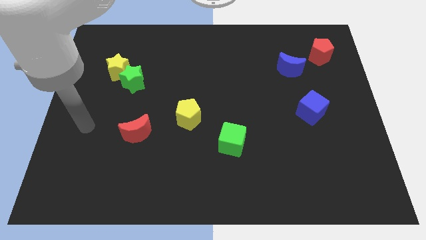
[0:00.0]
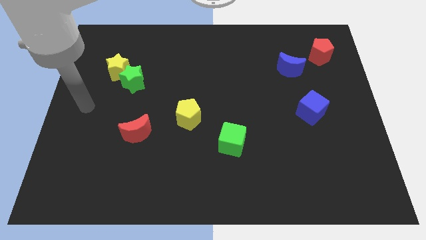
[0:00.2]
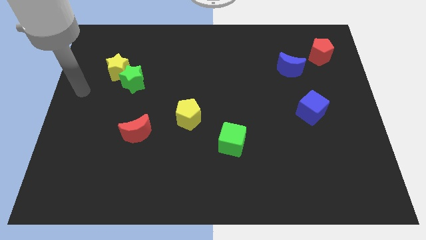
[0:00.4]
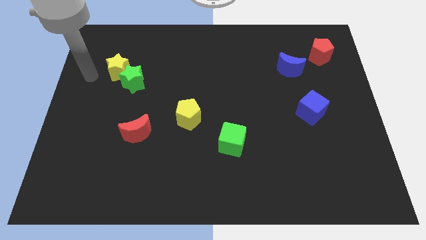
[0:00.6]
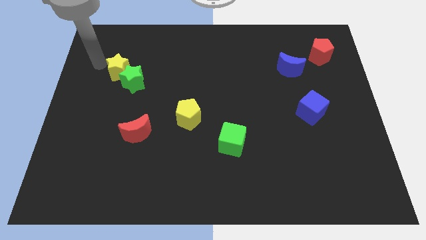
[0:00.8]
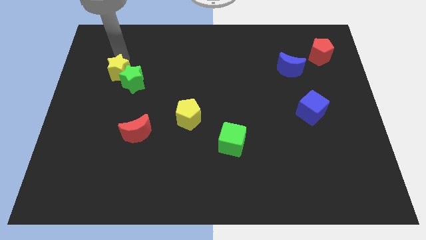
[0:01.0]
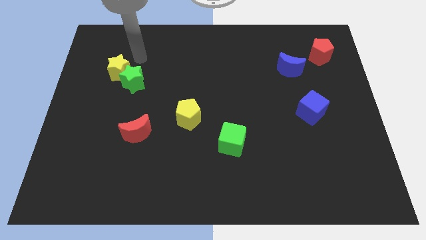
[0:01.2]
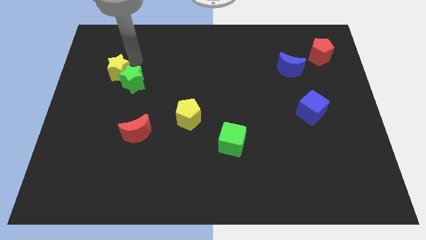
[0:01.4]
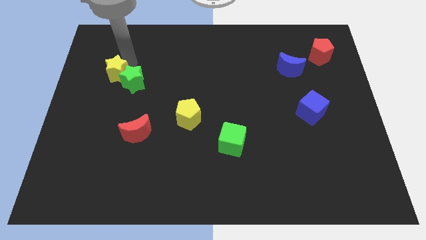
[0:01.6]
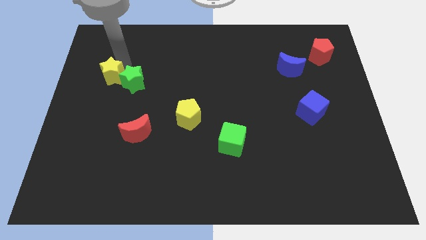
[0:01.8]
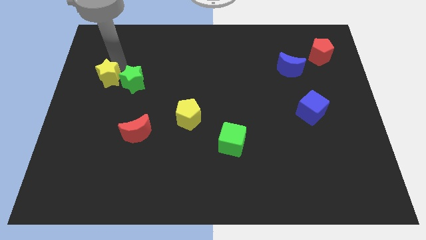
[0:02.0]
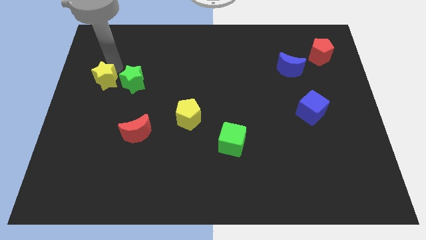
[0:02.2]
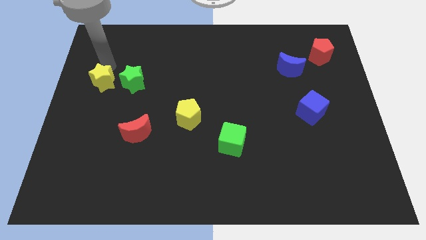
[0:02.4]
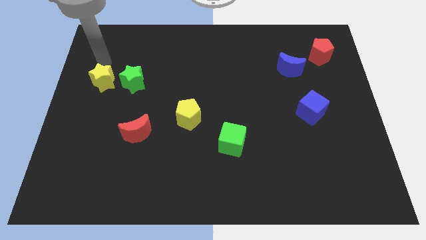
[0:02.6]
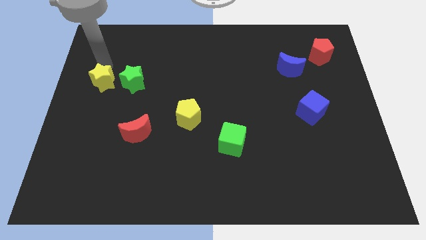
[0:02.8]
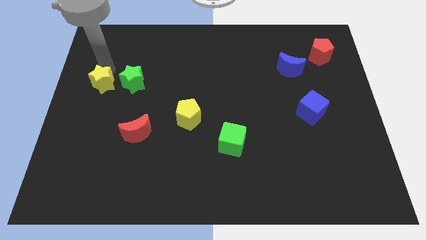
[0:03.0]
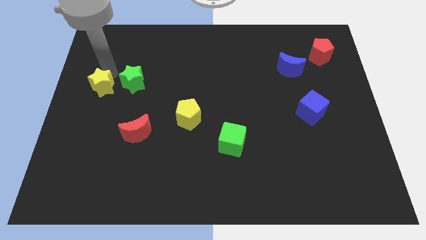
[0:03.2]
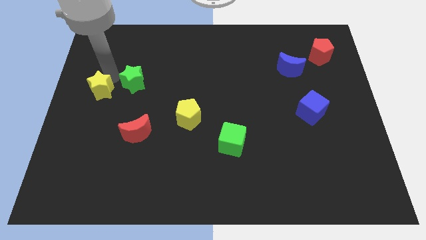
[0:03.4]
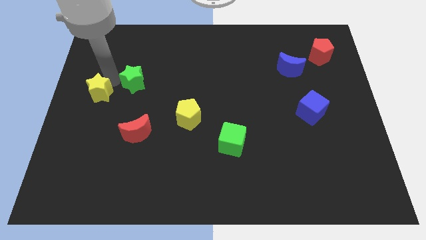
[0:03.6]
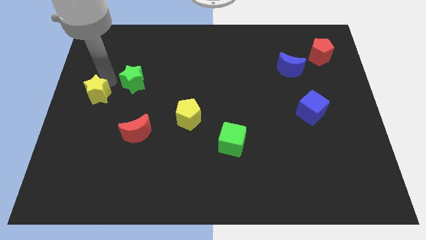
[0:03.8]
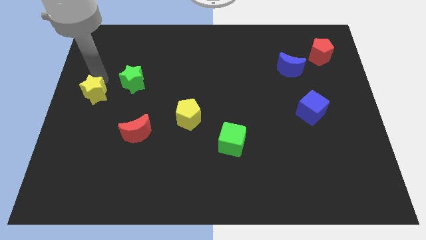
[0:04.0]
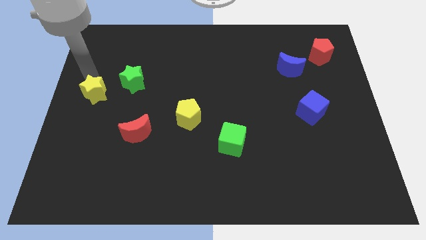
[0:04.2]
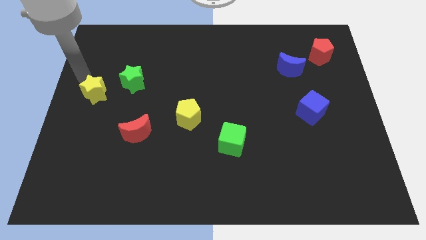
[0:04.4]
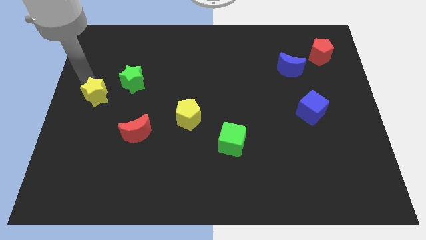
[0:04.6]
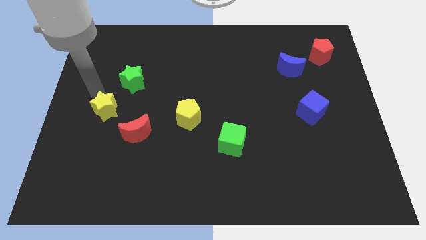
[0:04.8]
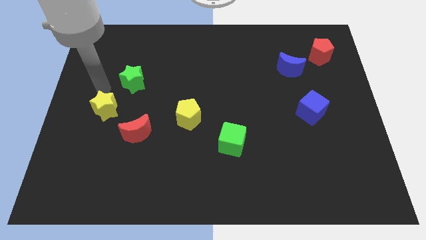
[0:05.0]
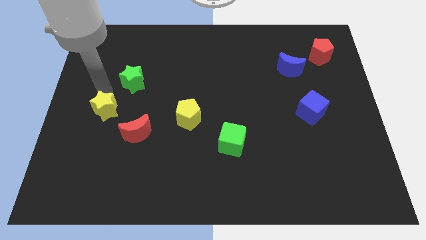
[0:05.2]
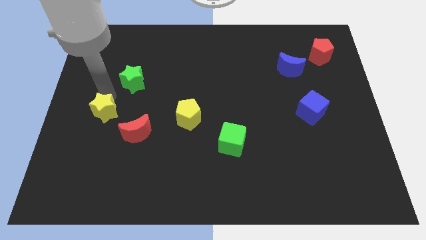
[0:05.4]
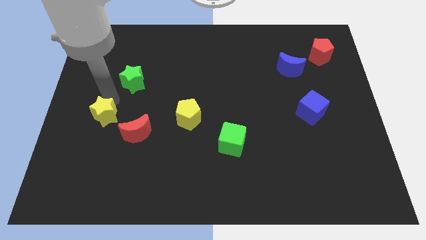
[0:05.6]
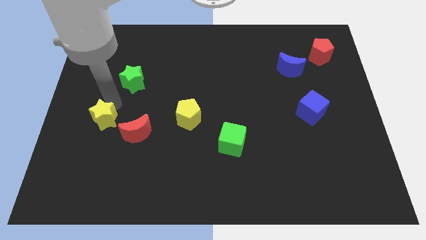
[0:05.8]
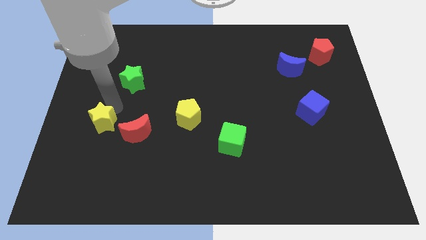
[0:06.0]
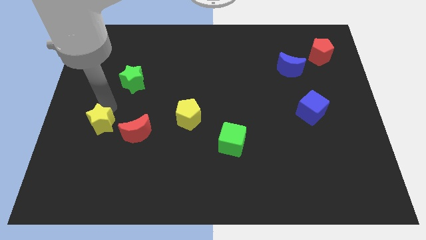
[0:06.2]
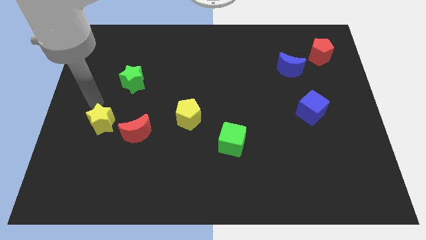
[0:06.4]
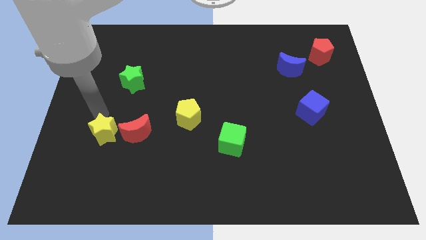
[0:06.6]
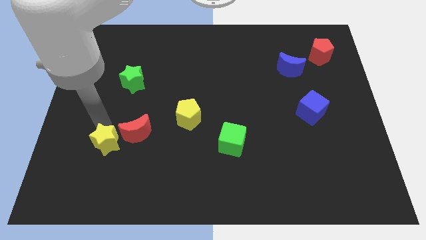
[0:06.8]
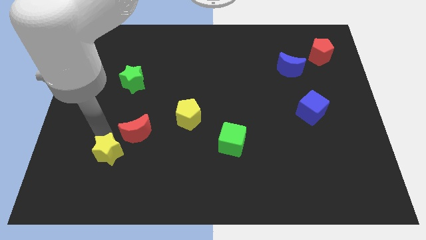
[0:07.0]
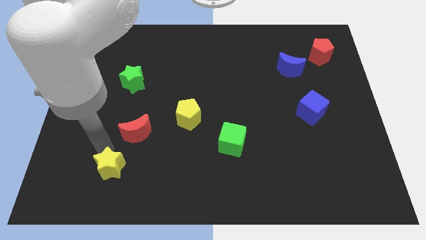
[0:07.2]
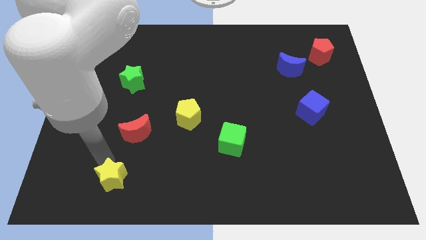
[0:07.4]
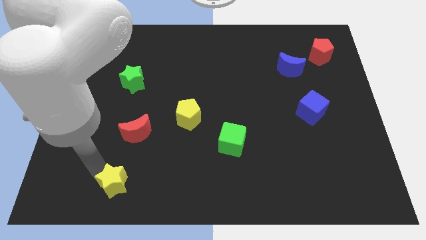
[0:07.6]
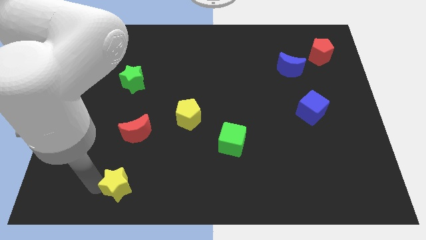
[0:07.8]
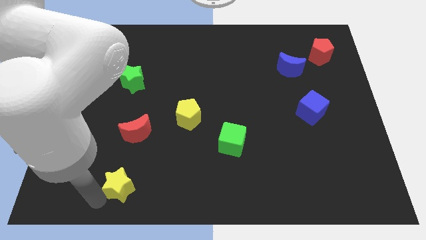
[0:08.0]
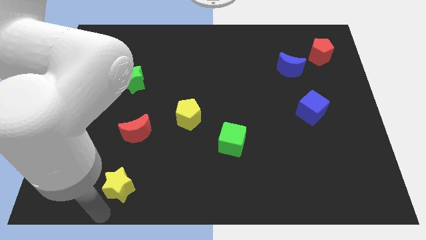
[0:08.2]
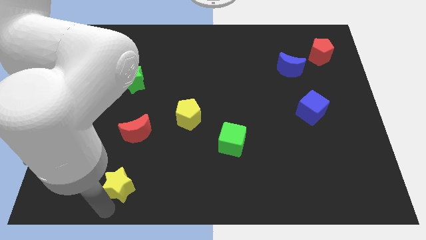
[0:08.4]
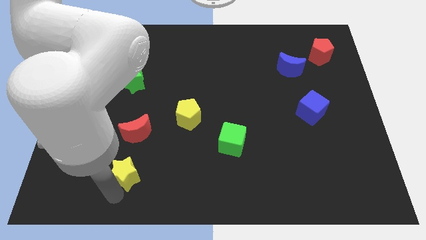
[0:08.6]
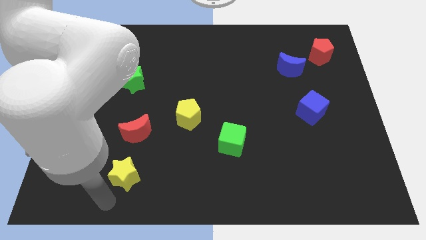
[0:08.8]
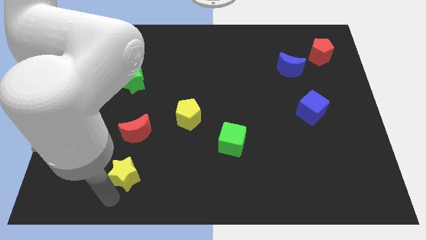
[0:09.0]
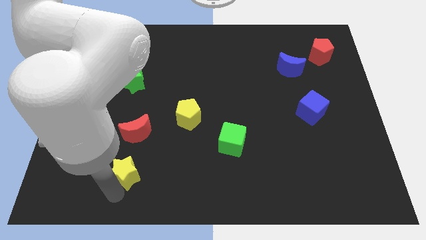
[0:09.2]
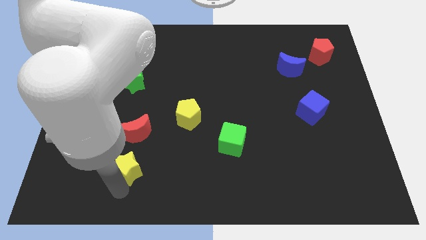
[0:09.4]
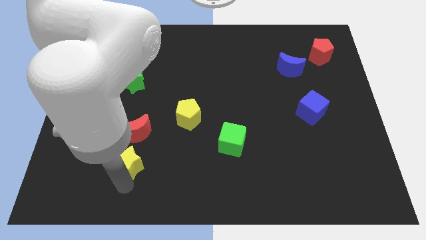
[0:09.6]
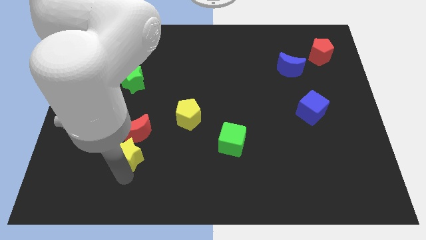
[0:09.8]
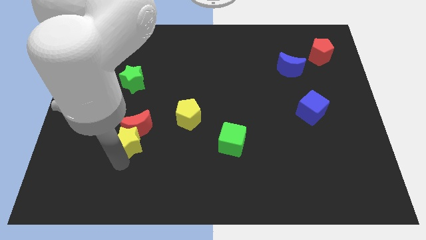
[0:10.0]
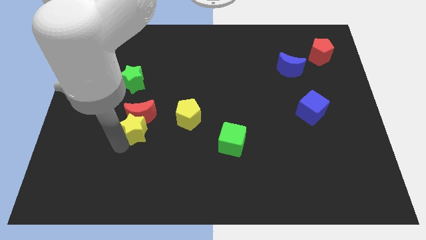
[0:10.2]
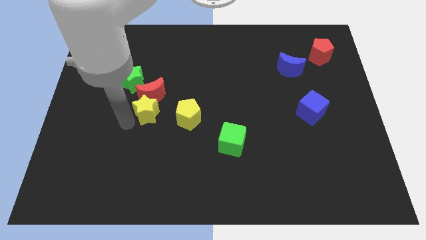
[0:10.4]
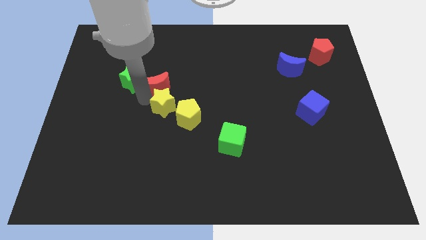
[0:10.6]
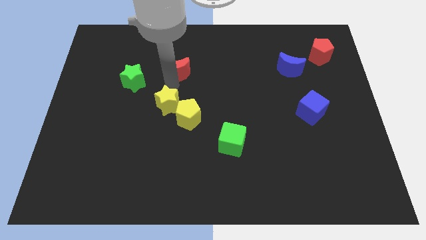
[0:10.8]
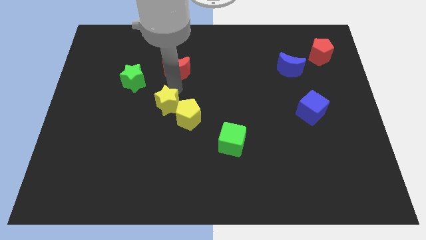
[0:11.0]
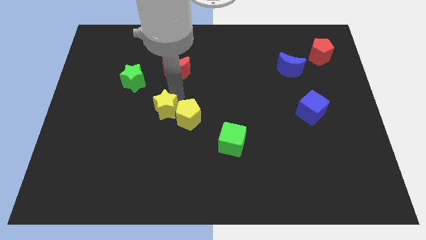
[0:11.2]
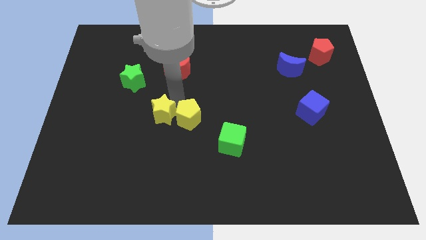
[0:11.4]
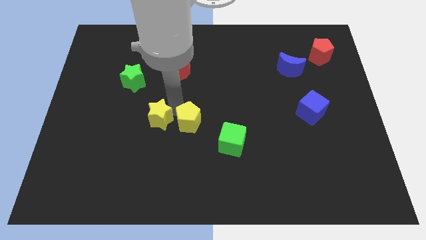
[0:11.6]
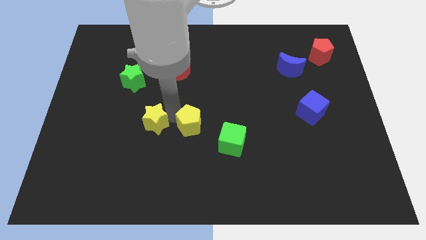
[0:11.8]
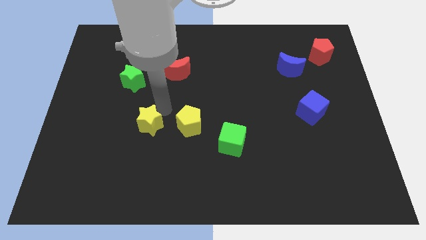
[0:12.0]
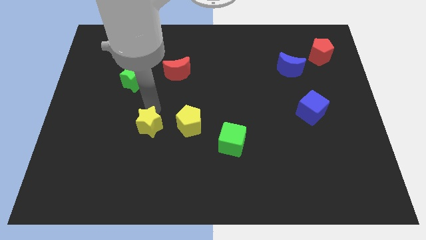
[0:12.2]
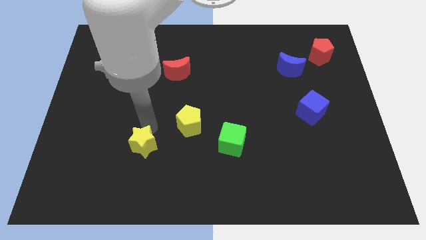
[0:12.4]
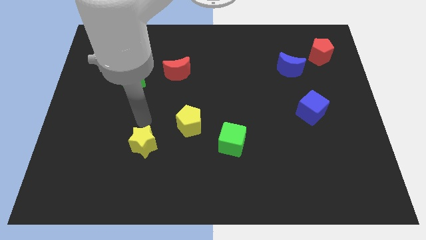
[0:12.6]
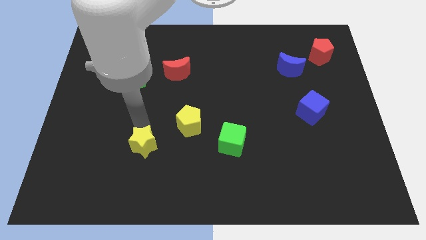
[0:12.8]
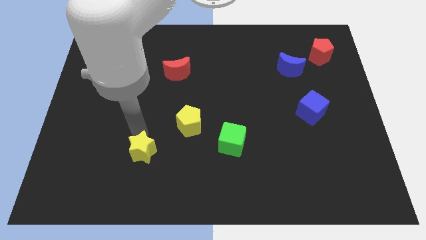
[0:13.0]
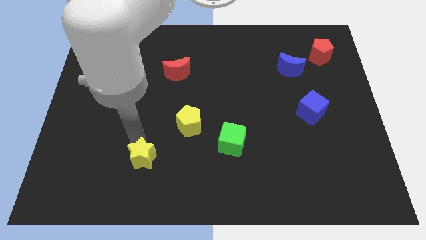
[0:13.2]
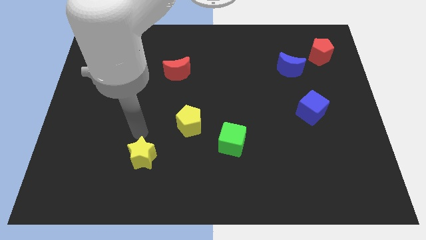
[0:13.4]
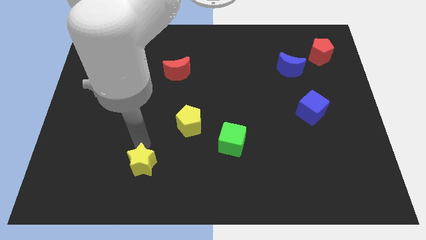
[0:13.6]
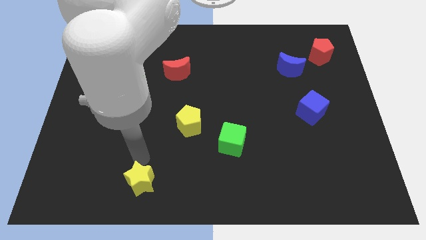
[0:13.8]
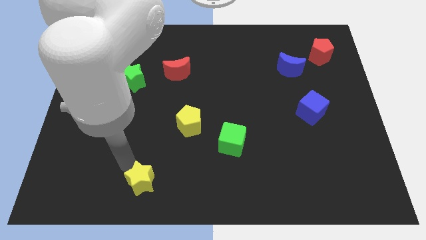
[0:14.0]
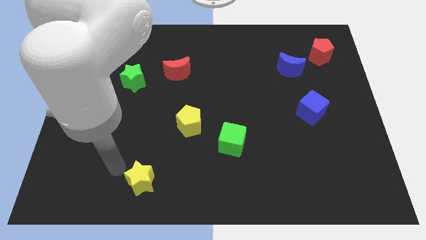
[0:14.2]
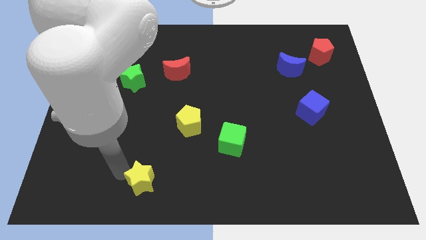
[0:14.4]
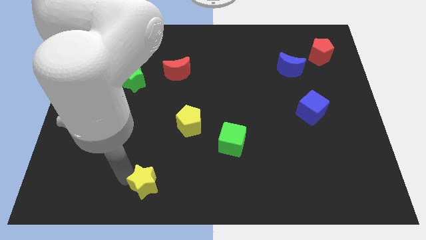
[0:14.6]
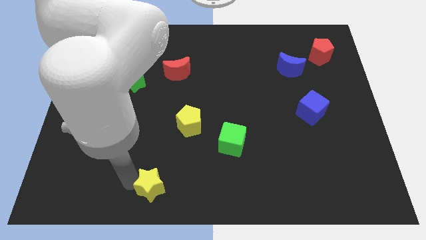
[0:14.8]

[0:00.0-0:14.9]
put the yellow star to the bottom side
